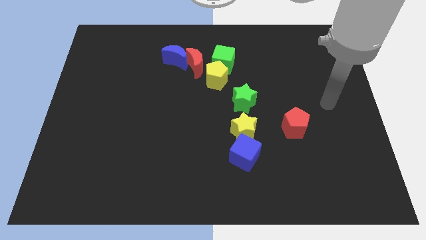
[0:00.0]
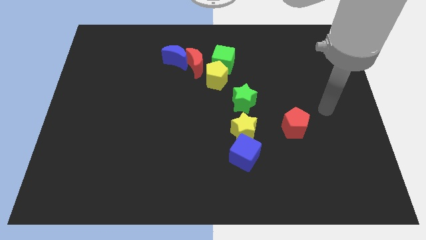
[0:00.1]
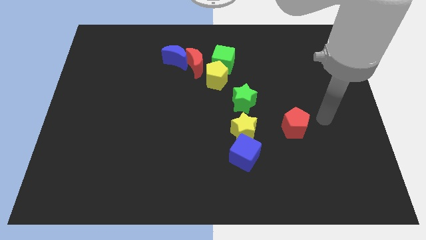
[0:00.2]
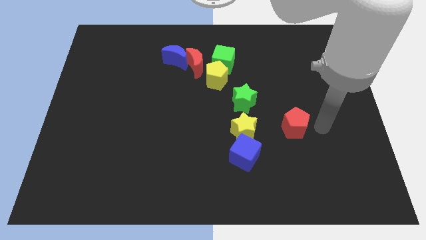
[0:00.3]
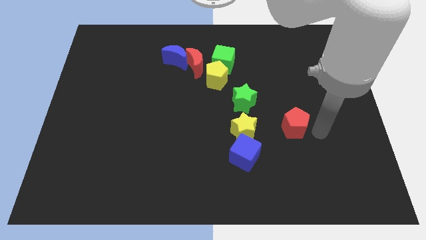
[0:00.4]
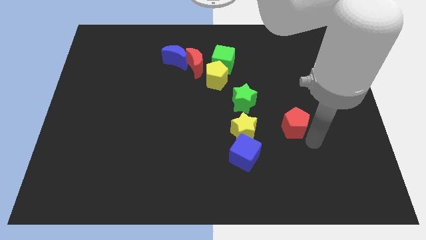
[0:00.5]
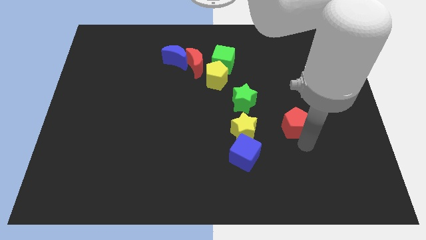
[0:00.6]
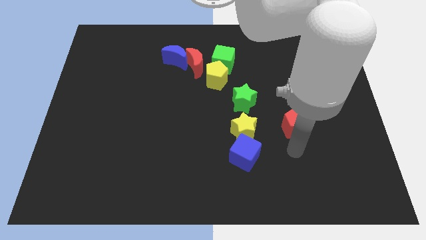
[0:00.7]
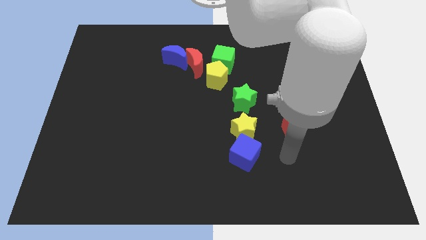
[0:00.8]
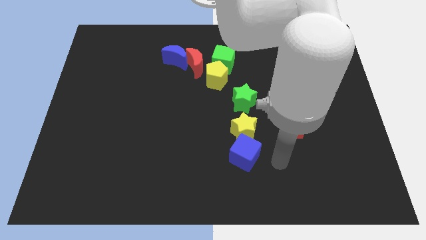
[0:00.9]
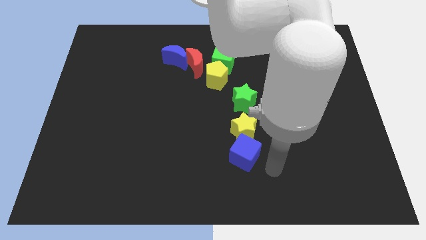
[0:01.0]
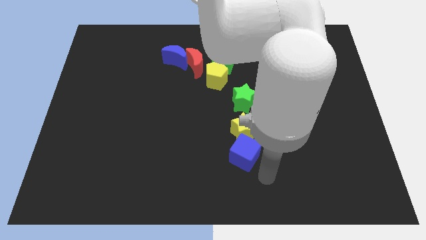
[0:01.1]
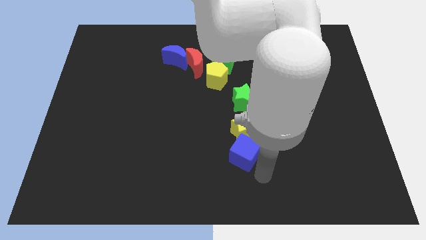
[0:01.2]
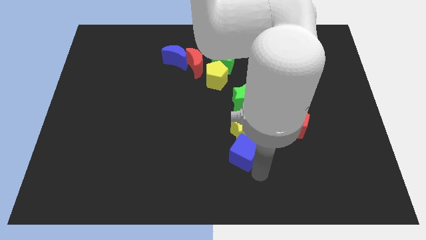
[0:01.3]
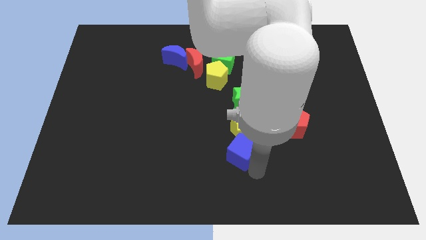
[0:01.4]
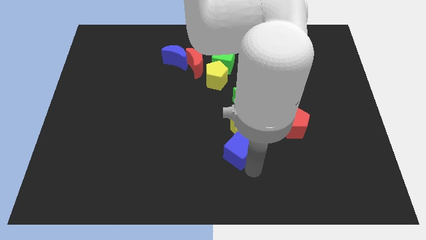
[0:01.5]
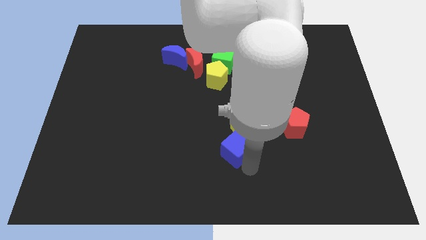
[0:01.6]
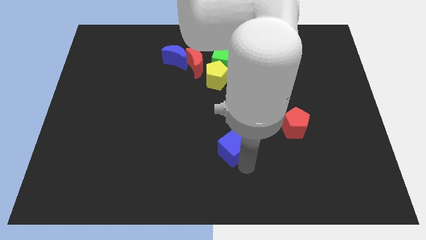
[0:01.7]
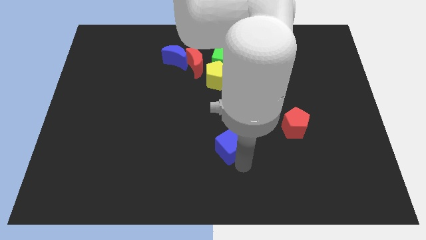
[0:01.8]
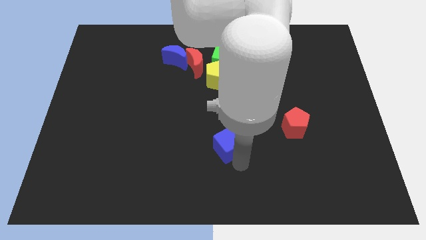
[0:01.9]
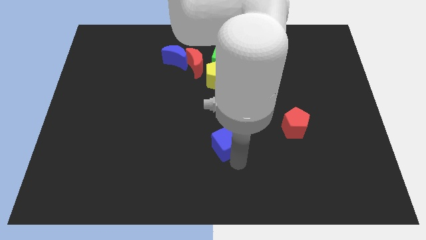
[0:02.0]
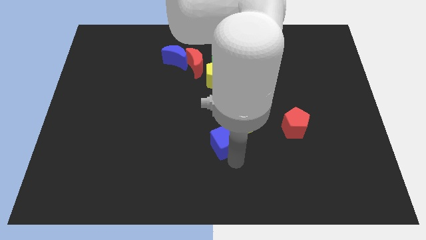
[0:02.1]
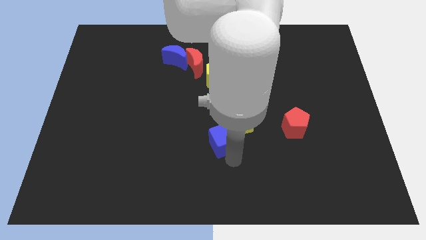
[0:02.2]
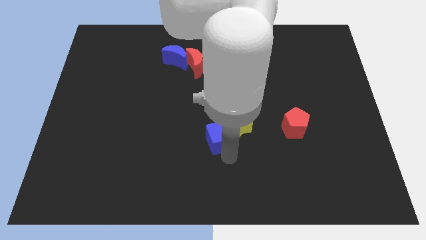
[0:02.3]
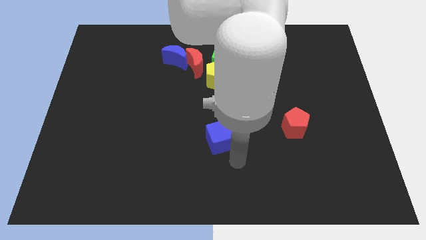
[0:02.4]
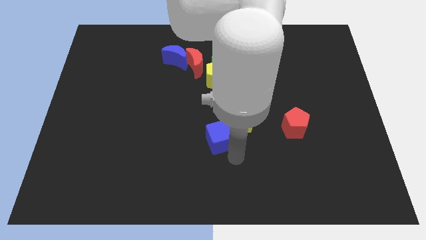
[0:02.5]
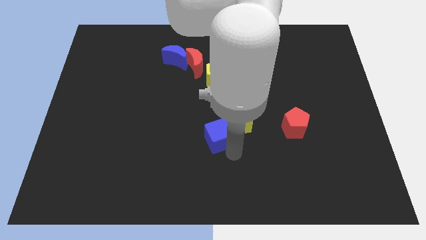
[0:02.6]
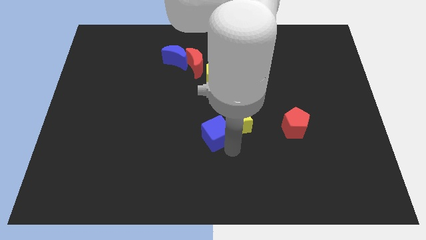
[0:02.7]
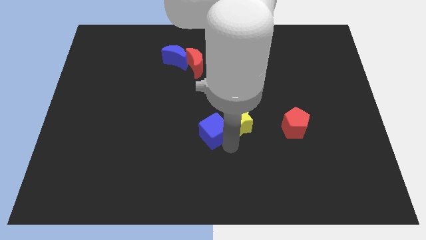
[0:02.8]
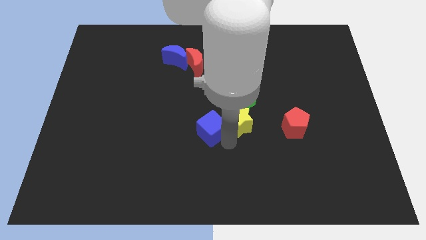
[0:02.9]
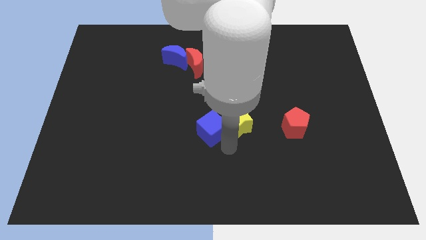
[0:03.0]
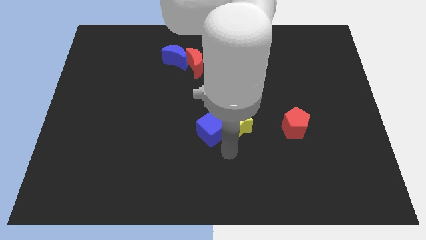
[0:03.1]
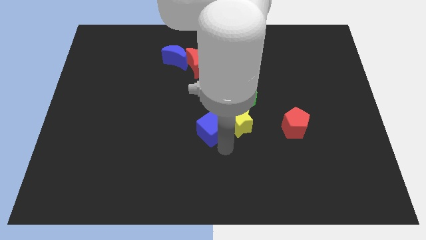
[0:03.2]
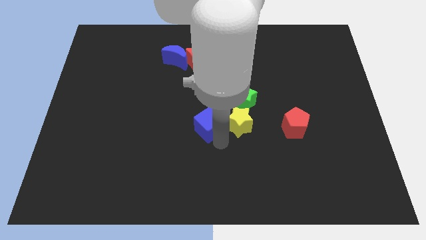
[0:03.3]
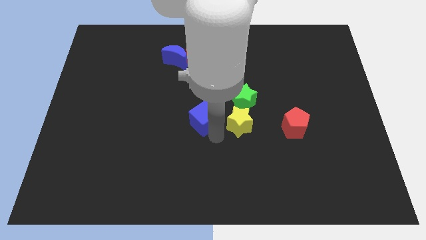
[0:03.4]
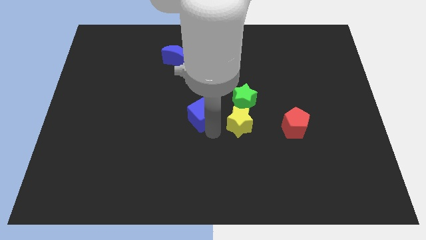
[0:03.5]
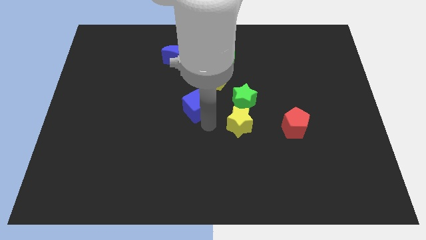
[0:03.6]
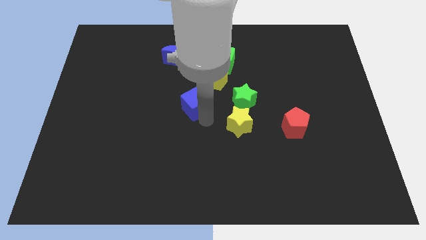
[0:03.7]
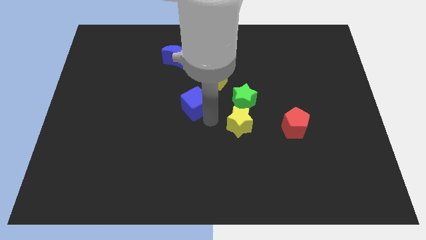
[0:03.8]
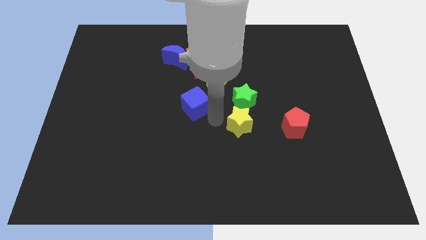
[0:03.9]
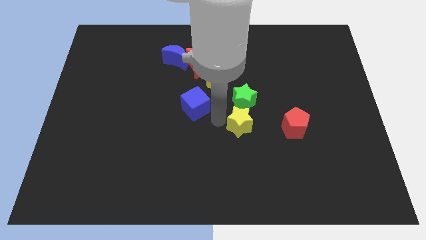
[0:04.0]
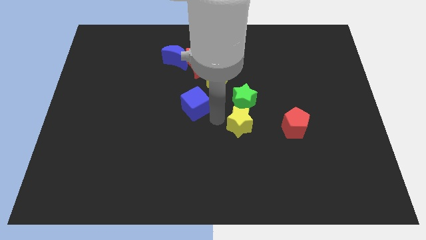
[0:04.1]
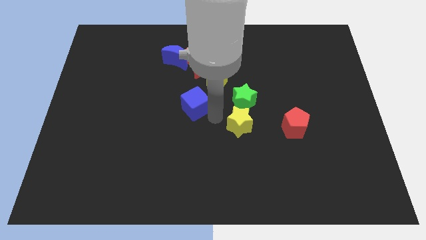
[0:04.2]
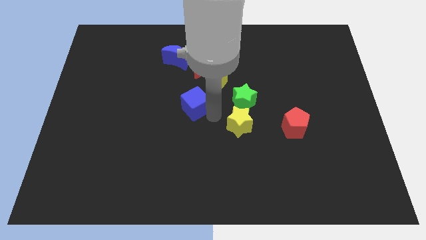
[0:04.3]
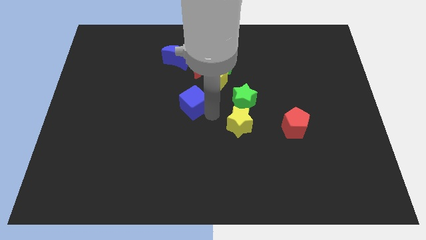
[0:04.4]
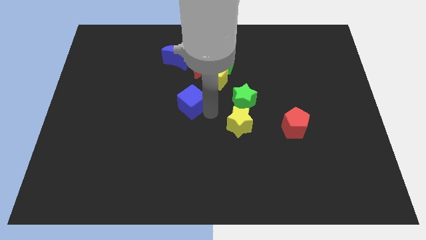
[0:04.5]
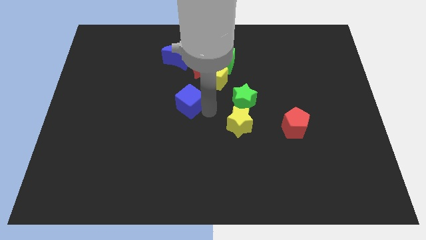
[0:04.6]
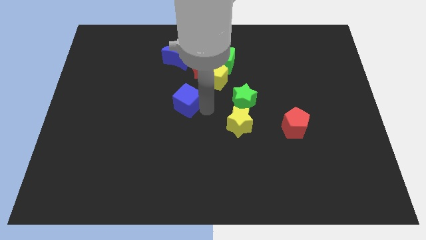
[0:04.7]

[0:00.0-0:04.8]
push the blue cube to the bottom of the blue moon

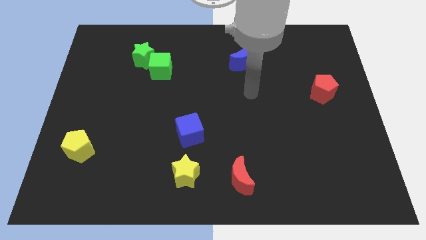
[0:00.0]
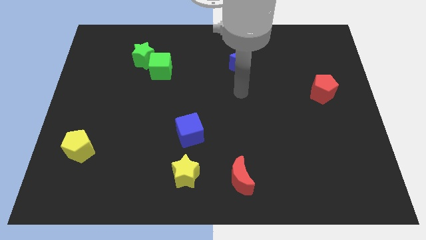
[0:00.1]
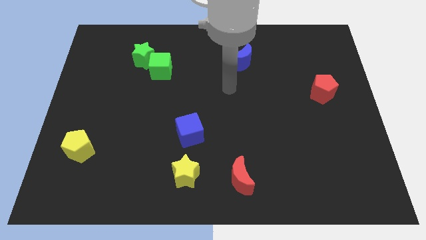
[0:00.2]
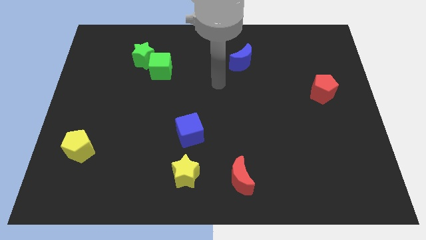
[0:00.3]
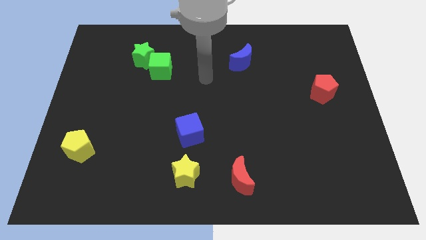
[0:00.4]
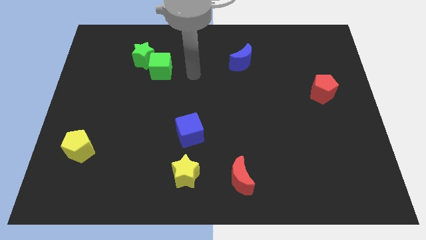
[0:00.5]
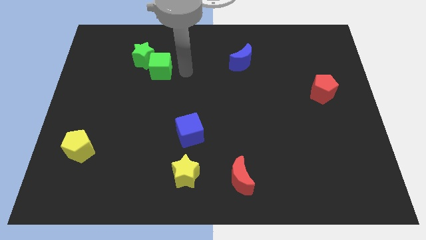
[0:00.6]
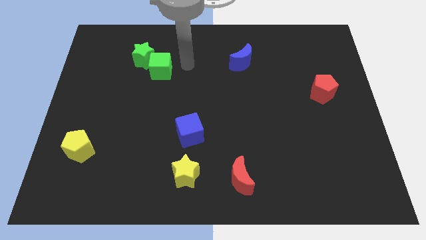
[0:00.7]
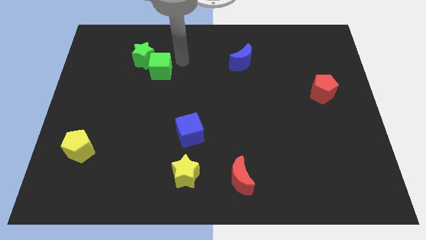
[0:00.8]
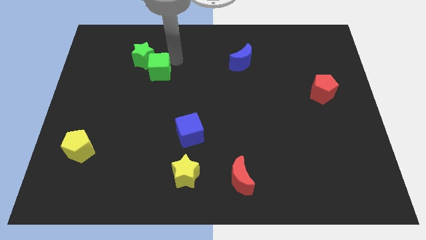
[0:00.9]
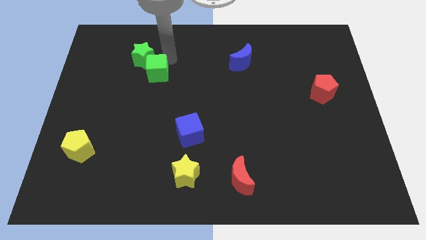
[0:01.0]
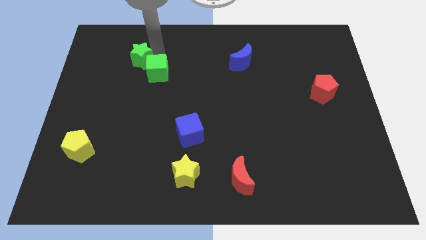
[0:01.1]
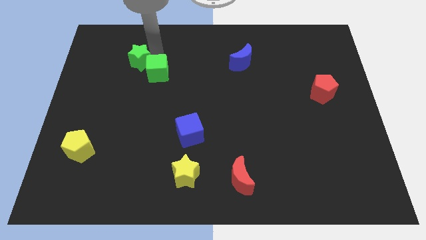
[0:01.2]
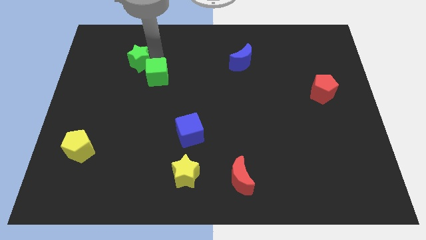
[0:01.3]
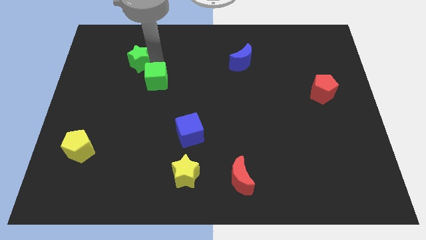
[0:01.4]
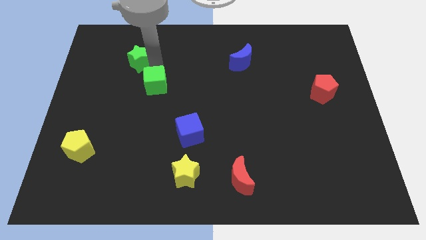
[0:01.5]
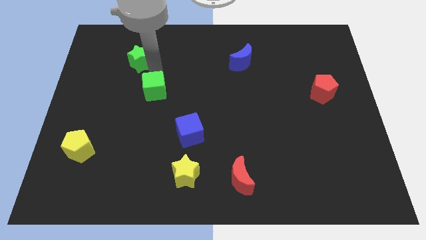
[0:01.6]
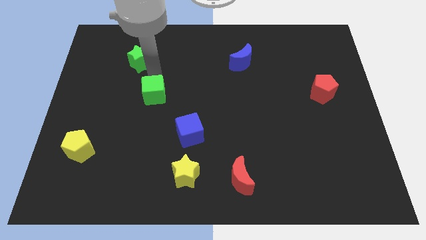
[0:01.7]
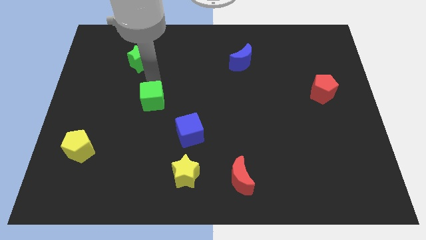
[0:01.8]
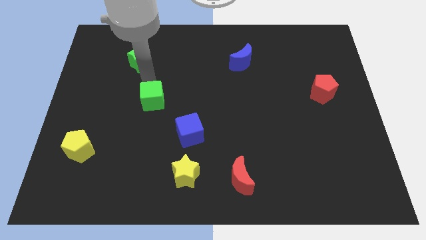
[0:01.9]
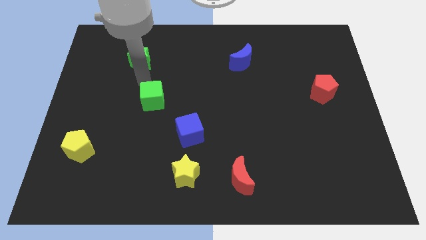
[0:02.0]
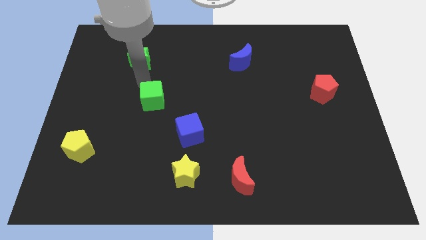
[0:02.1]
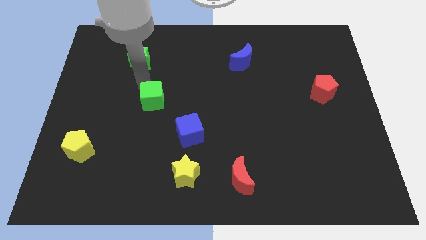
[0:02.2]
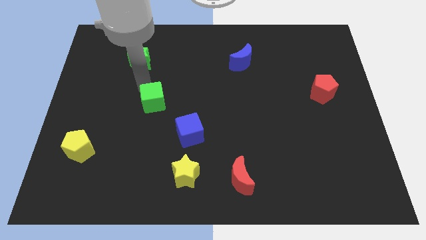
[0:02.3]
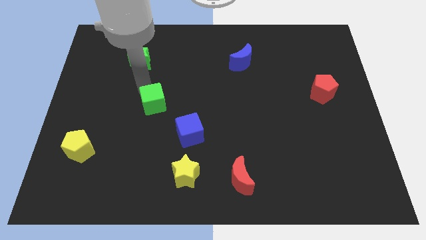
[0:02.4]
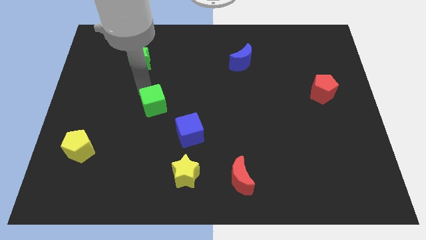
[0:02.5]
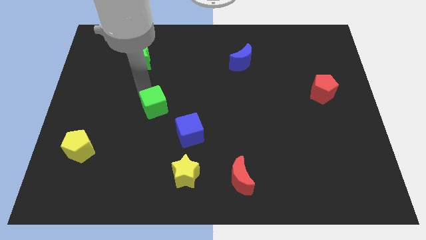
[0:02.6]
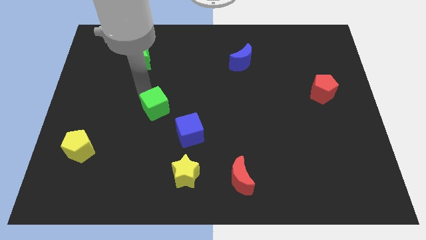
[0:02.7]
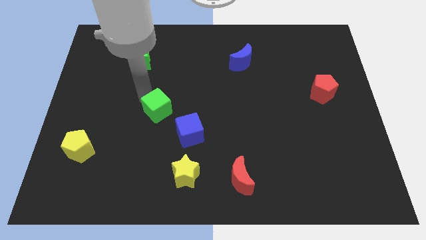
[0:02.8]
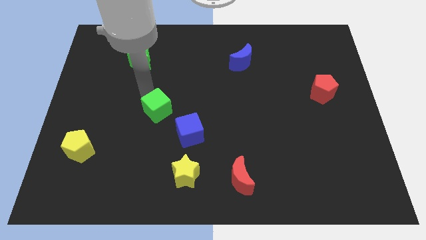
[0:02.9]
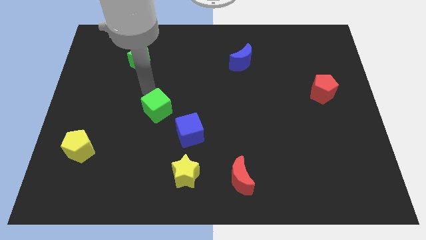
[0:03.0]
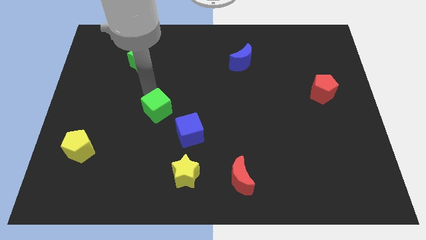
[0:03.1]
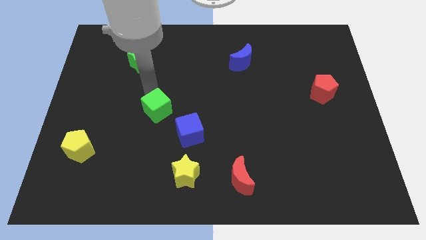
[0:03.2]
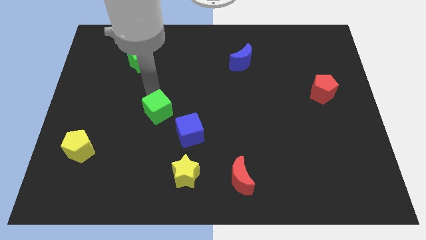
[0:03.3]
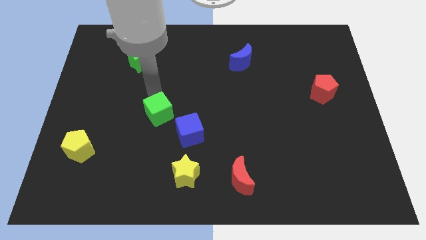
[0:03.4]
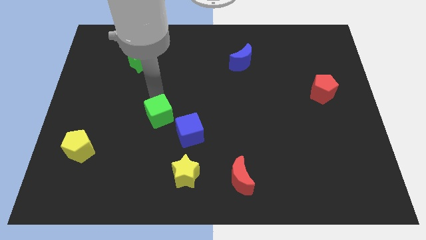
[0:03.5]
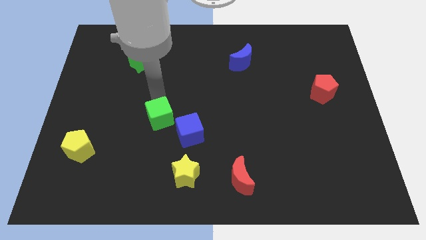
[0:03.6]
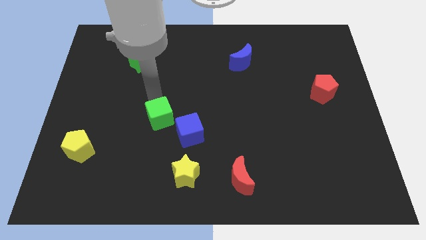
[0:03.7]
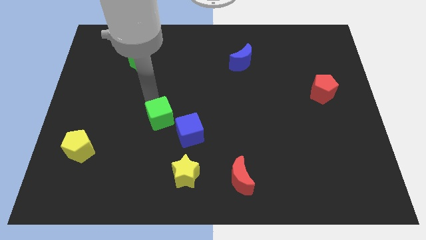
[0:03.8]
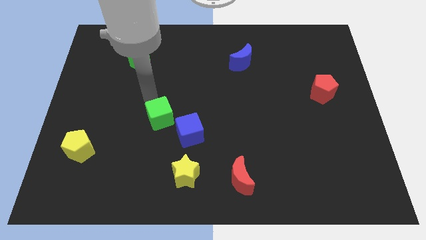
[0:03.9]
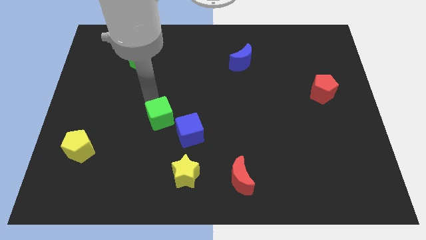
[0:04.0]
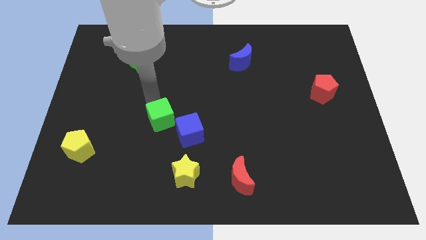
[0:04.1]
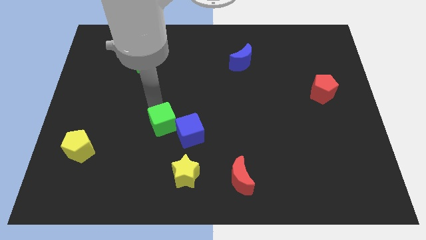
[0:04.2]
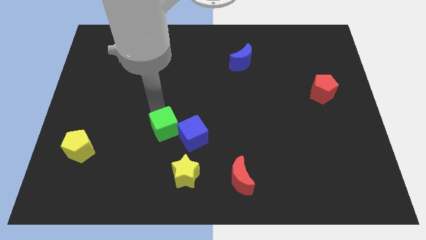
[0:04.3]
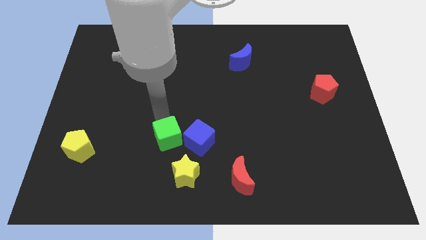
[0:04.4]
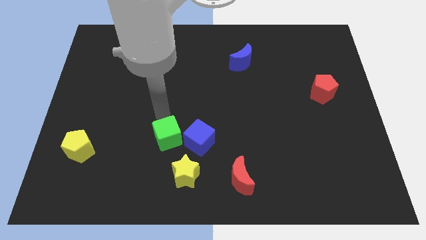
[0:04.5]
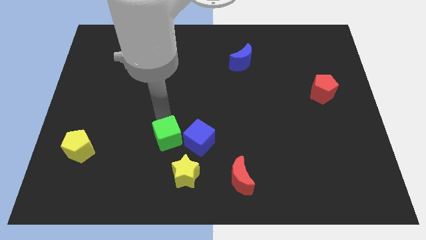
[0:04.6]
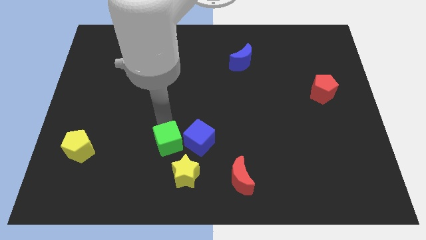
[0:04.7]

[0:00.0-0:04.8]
move the green cube to the bottom left of the blue cube
